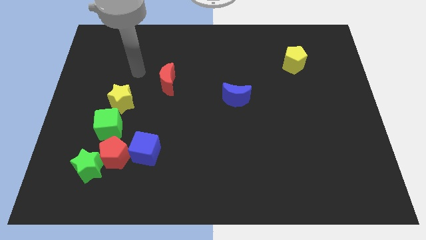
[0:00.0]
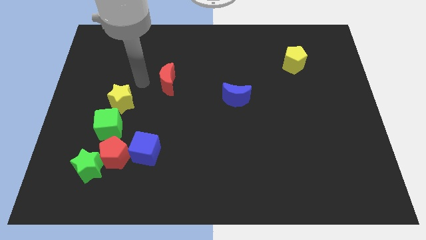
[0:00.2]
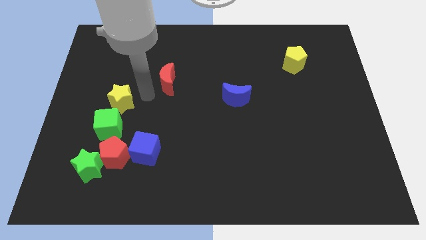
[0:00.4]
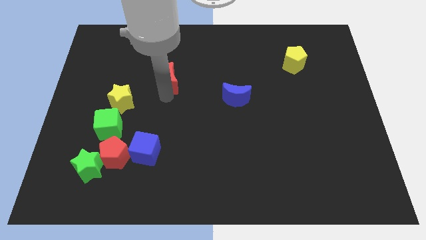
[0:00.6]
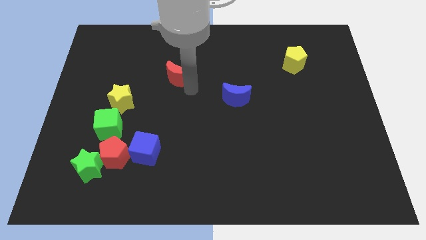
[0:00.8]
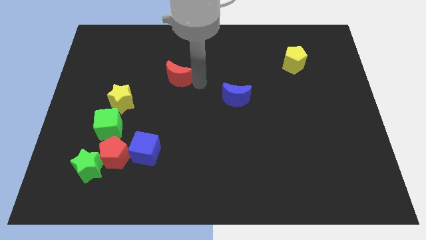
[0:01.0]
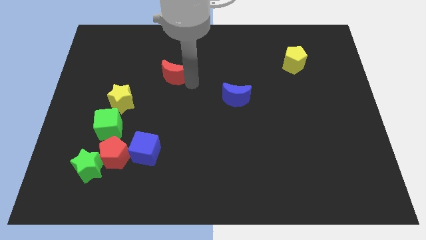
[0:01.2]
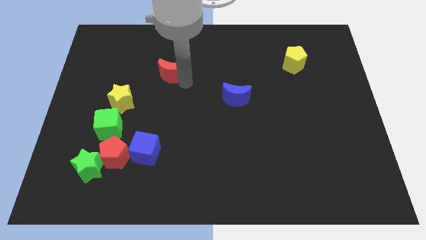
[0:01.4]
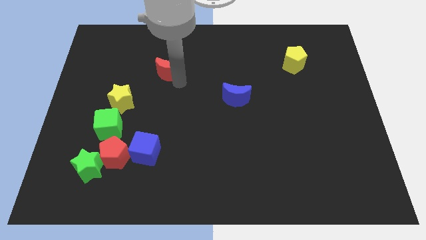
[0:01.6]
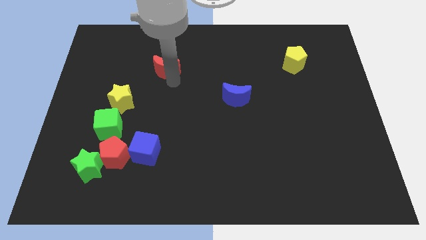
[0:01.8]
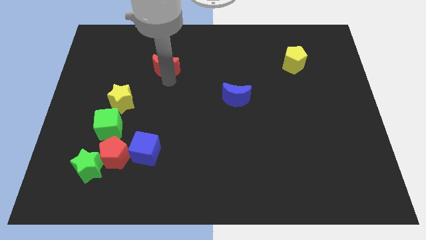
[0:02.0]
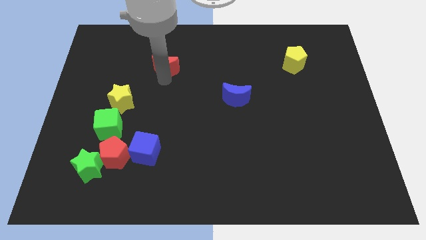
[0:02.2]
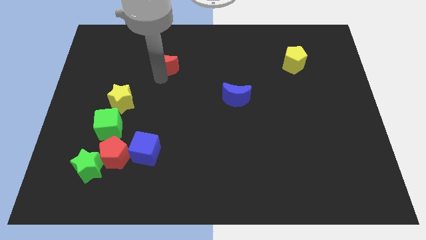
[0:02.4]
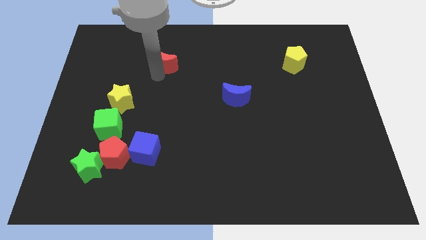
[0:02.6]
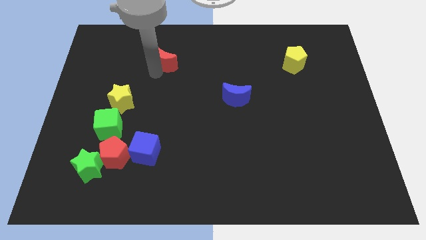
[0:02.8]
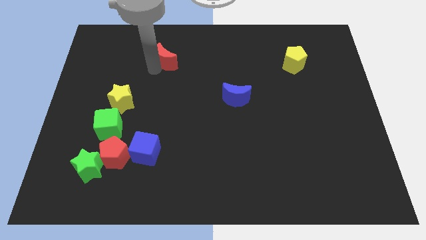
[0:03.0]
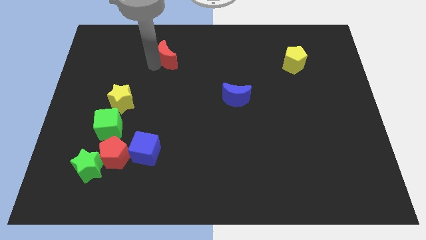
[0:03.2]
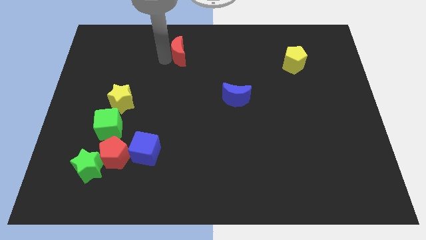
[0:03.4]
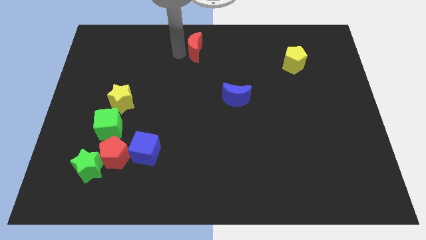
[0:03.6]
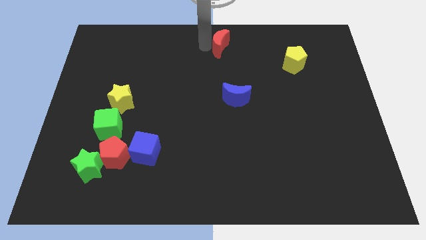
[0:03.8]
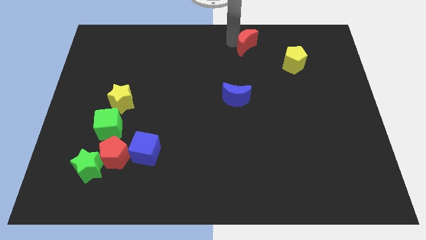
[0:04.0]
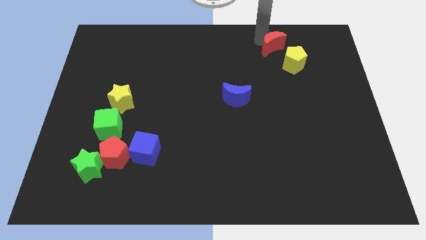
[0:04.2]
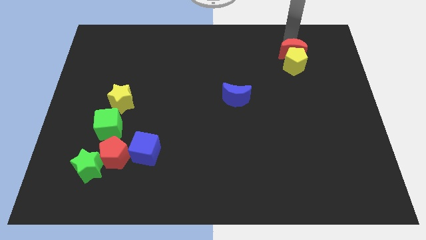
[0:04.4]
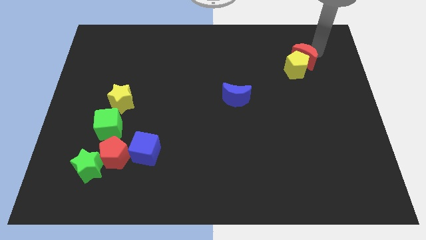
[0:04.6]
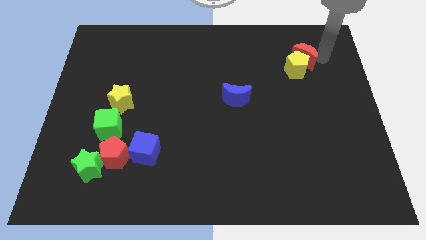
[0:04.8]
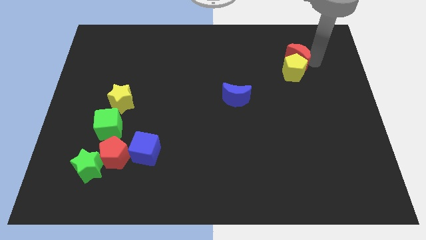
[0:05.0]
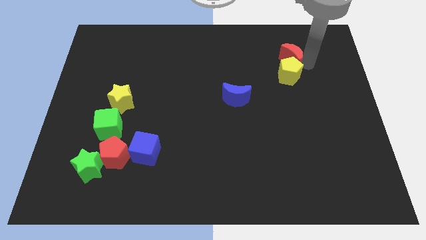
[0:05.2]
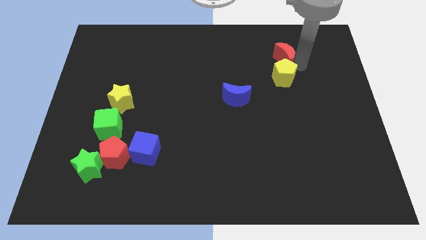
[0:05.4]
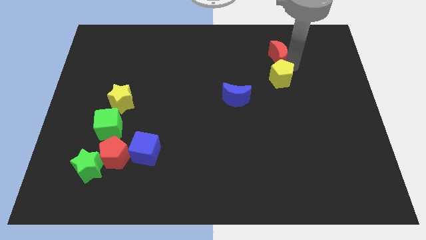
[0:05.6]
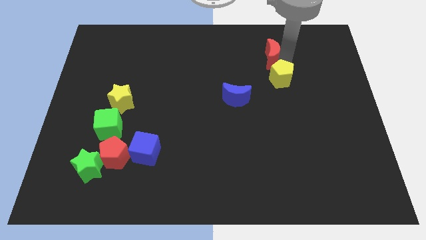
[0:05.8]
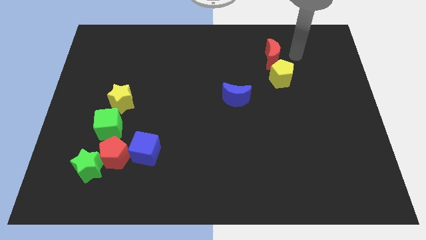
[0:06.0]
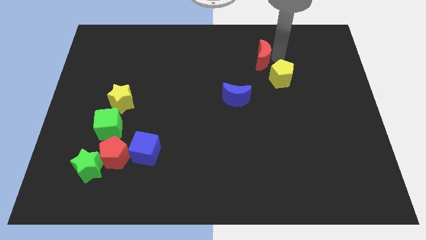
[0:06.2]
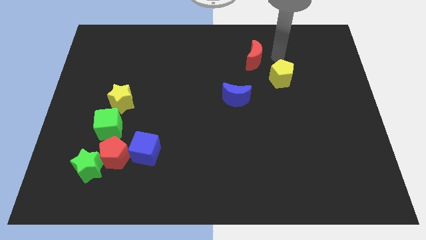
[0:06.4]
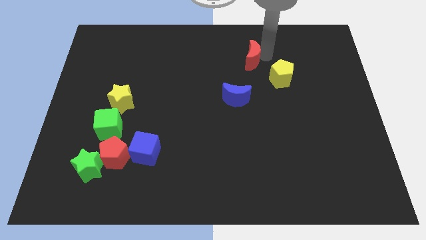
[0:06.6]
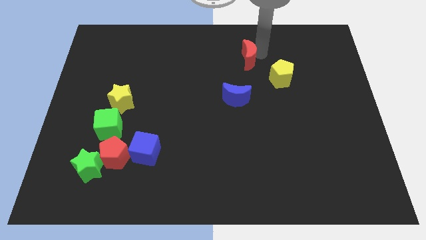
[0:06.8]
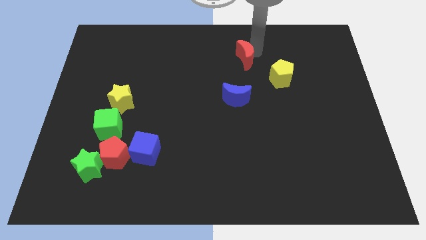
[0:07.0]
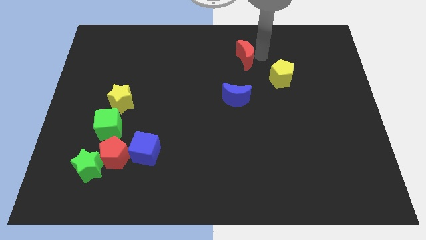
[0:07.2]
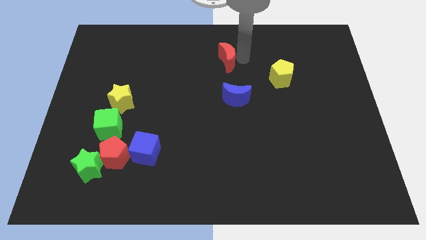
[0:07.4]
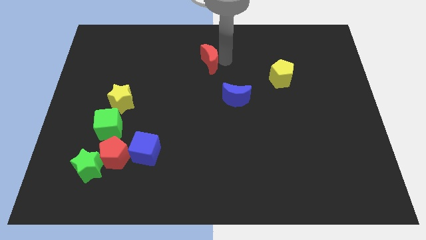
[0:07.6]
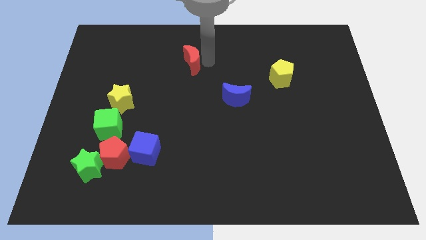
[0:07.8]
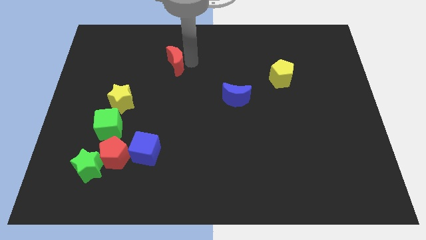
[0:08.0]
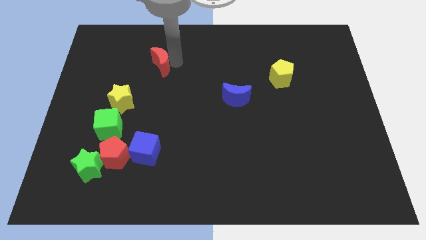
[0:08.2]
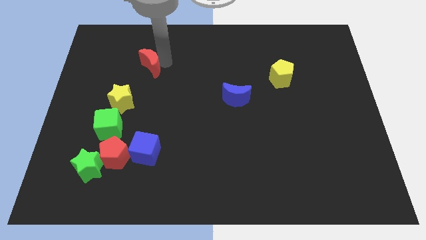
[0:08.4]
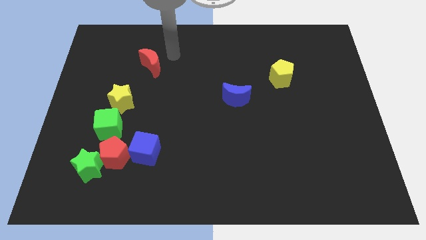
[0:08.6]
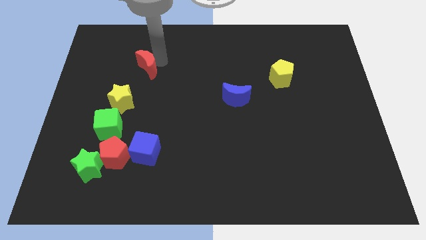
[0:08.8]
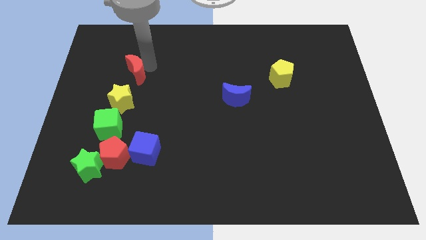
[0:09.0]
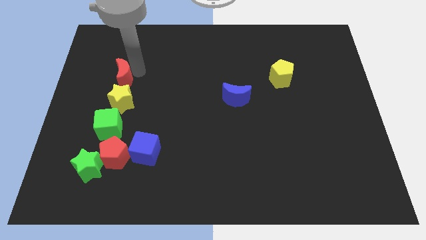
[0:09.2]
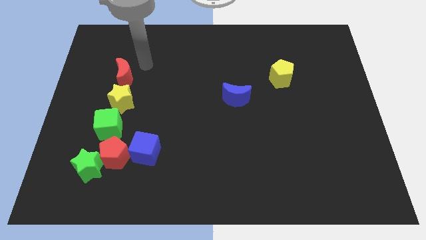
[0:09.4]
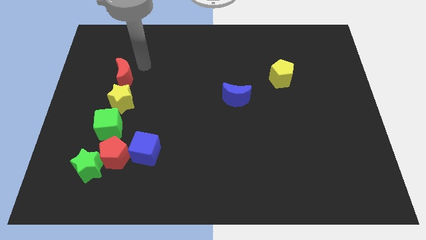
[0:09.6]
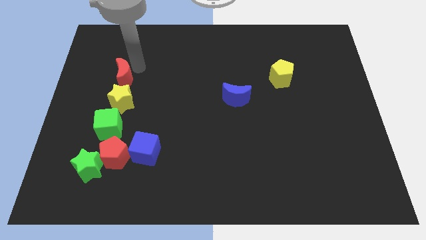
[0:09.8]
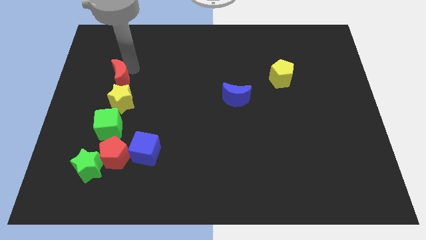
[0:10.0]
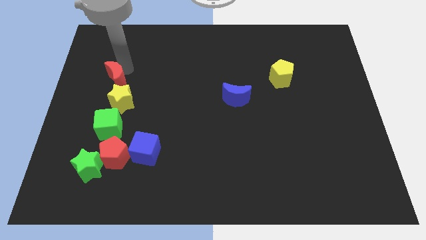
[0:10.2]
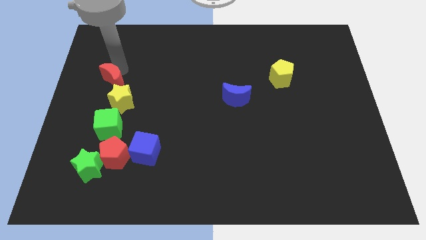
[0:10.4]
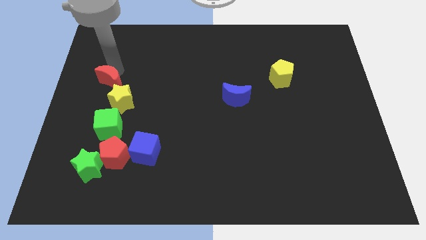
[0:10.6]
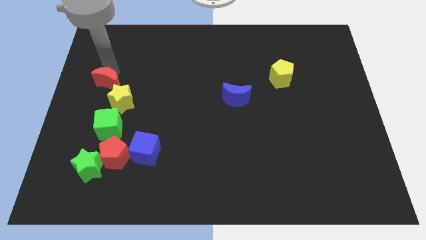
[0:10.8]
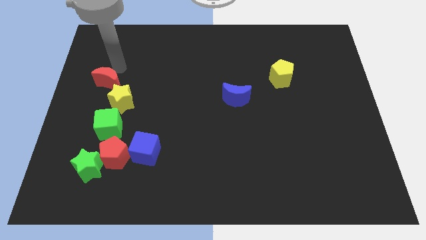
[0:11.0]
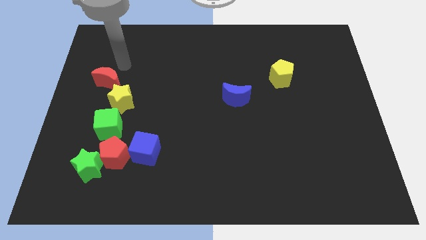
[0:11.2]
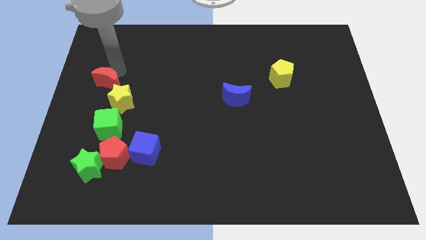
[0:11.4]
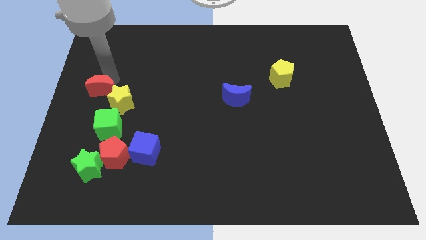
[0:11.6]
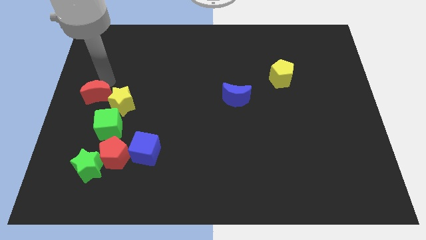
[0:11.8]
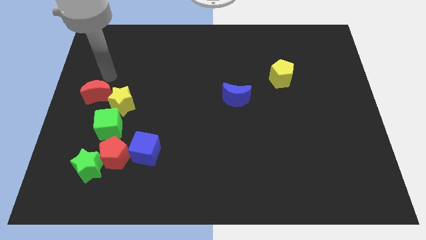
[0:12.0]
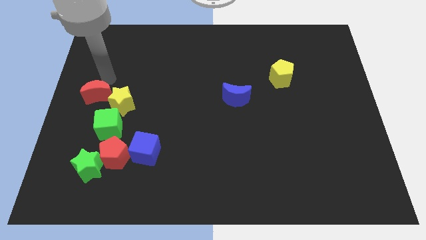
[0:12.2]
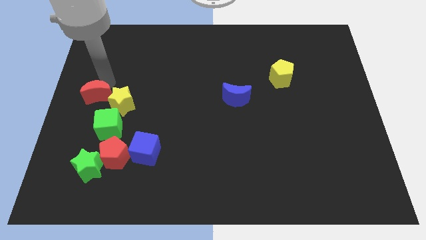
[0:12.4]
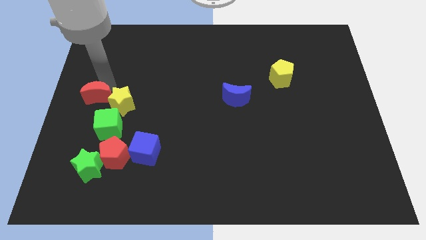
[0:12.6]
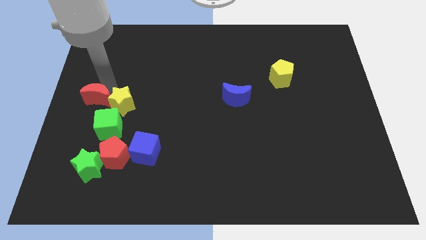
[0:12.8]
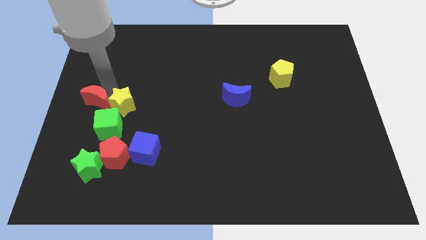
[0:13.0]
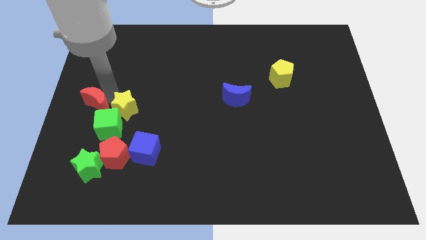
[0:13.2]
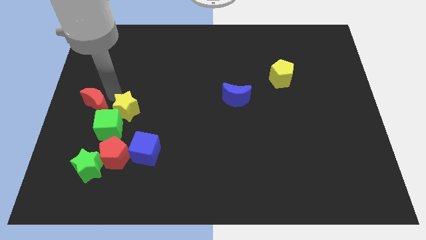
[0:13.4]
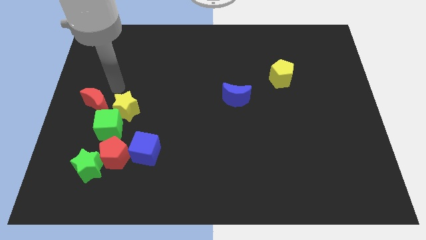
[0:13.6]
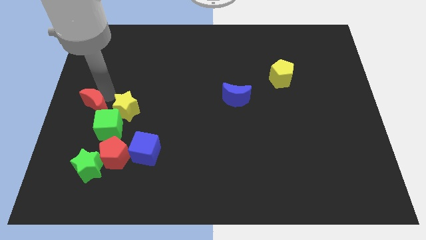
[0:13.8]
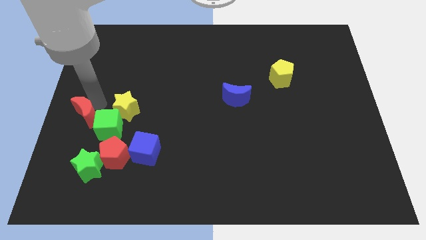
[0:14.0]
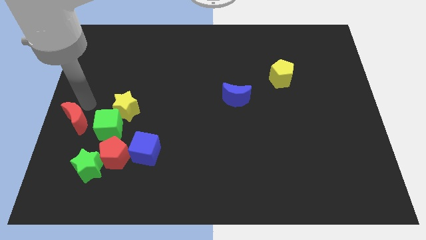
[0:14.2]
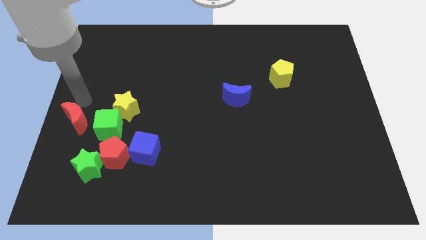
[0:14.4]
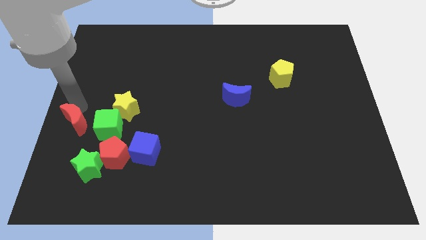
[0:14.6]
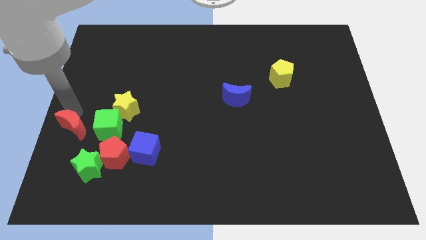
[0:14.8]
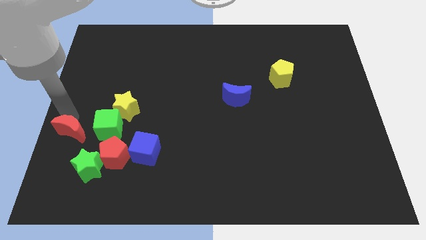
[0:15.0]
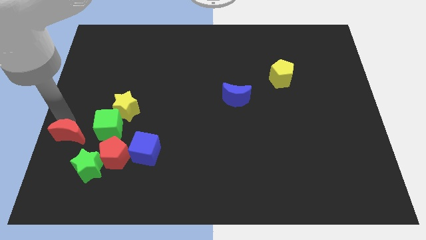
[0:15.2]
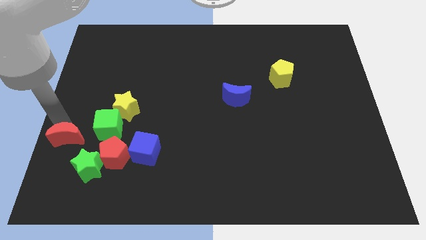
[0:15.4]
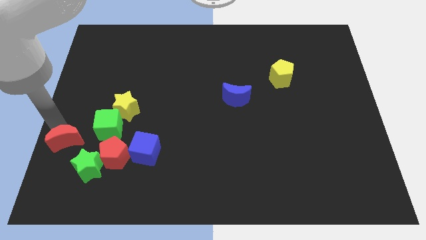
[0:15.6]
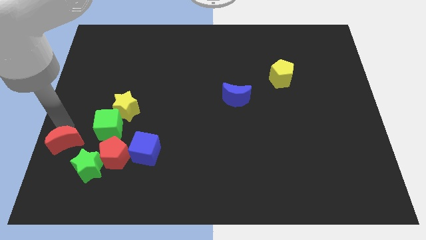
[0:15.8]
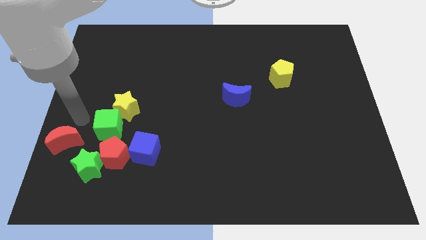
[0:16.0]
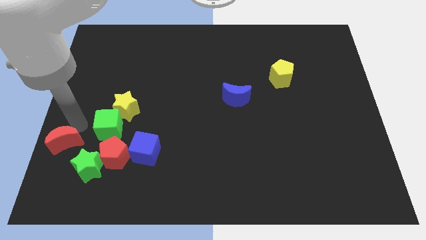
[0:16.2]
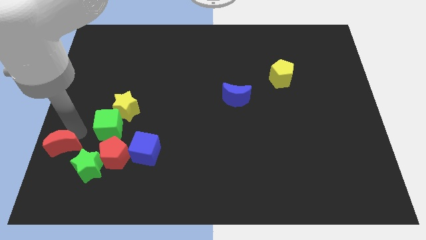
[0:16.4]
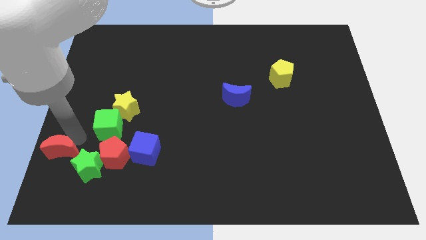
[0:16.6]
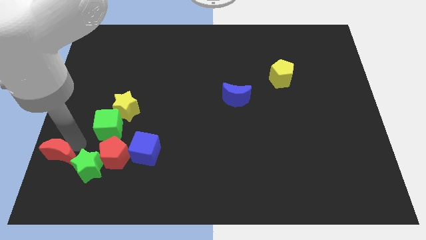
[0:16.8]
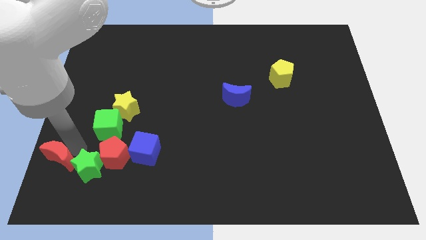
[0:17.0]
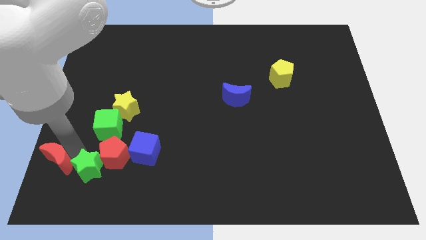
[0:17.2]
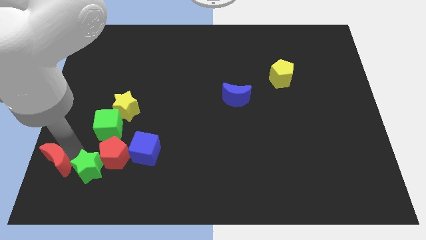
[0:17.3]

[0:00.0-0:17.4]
push the red moon to the bottom left of the board
